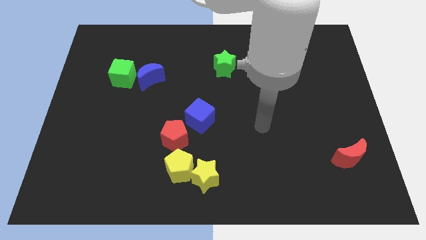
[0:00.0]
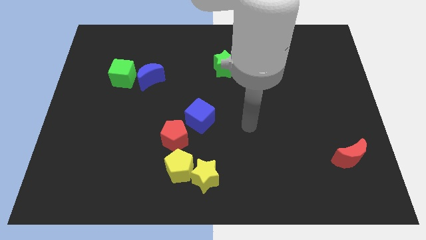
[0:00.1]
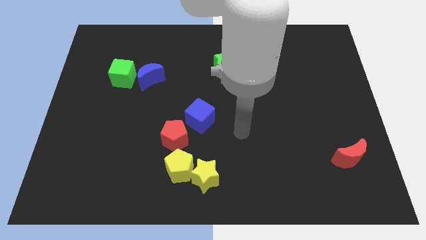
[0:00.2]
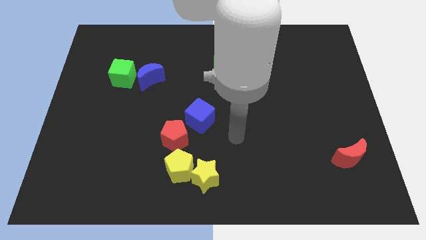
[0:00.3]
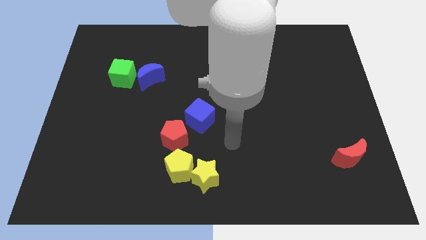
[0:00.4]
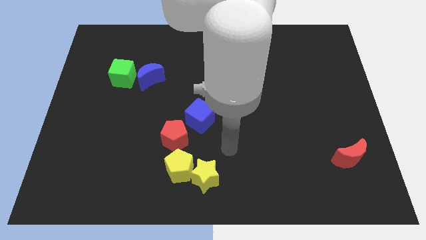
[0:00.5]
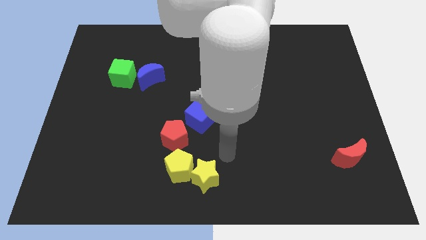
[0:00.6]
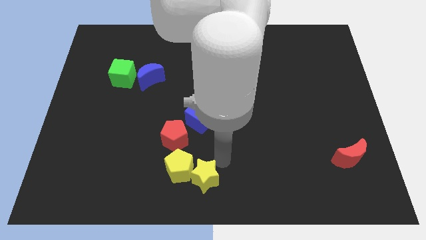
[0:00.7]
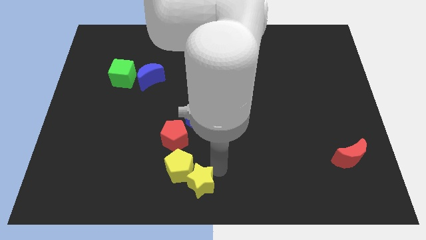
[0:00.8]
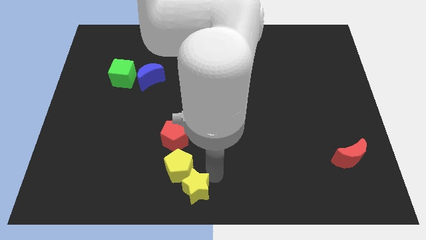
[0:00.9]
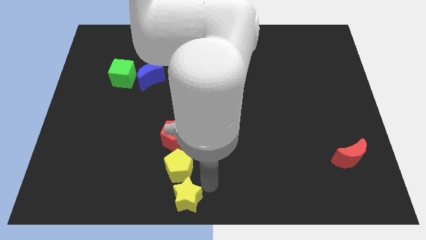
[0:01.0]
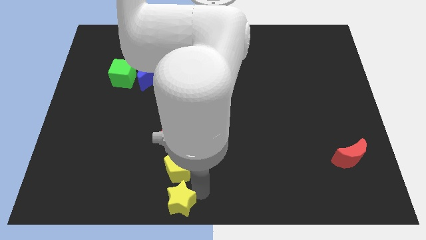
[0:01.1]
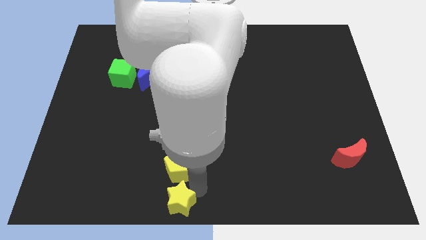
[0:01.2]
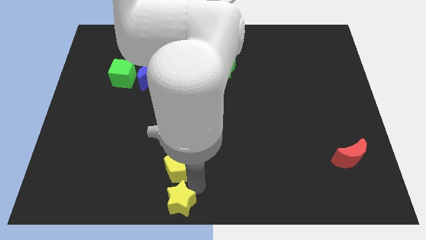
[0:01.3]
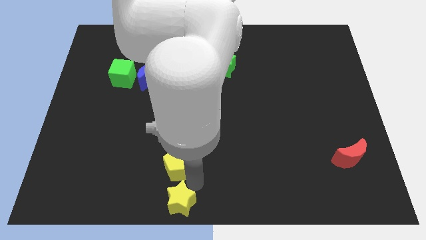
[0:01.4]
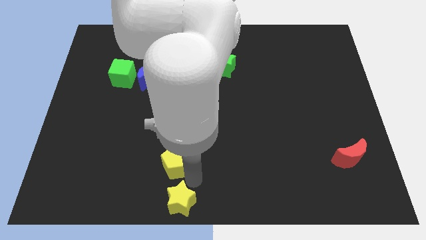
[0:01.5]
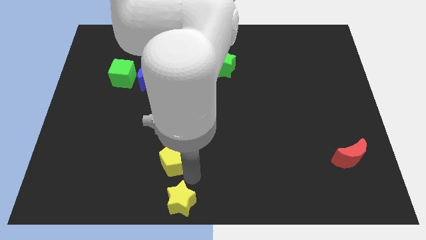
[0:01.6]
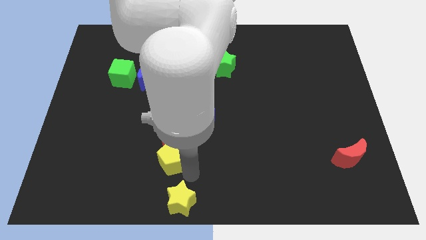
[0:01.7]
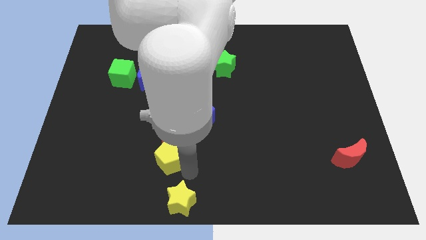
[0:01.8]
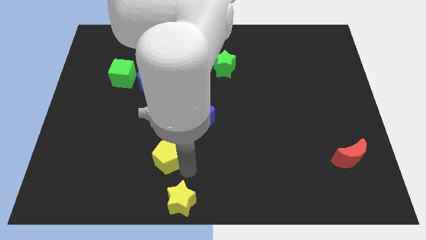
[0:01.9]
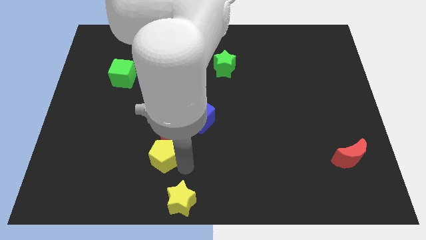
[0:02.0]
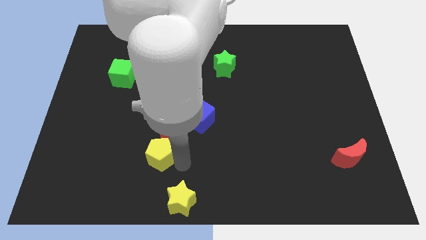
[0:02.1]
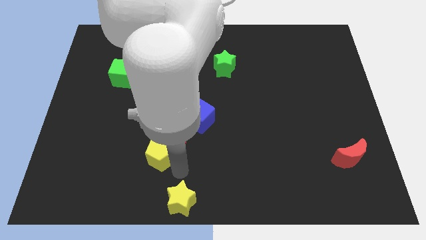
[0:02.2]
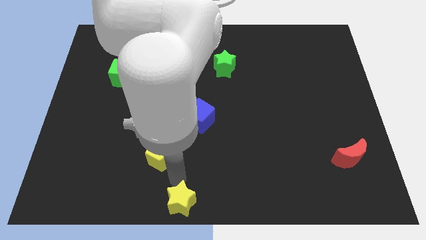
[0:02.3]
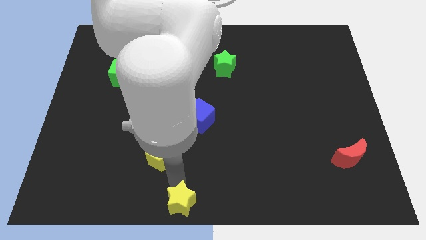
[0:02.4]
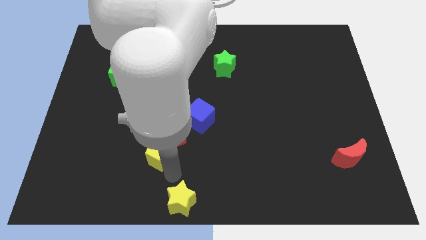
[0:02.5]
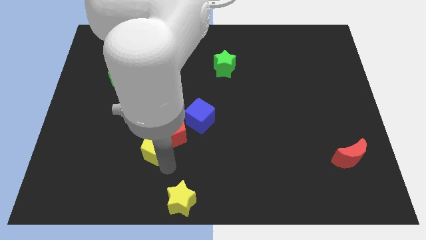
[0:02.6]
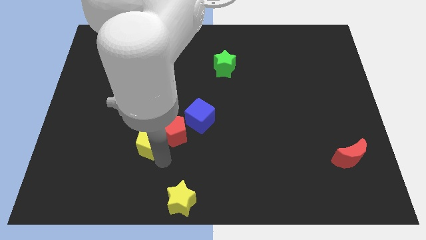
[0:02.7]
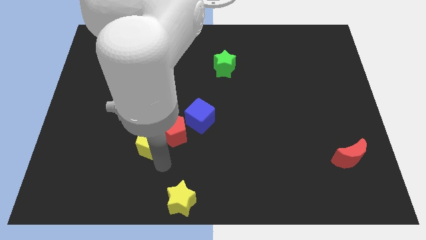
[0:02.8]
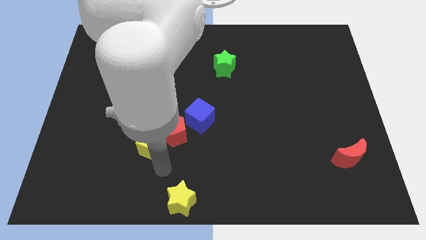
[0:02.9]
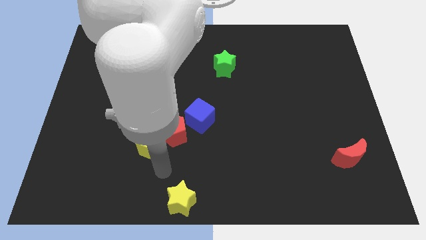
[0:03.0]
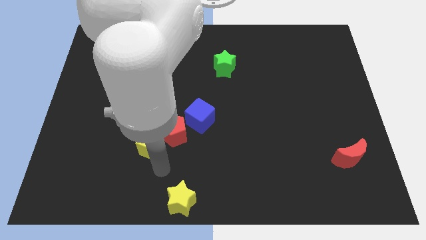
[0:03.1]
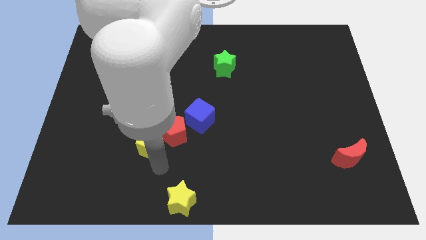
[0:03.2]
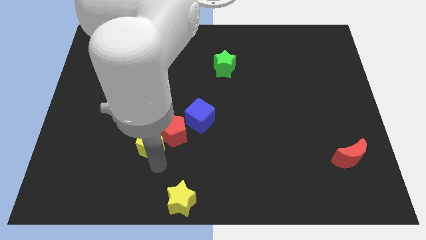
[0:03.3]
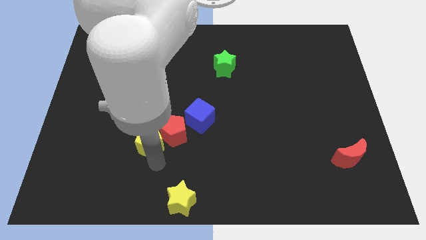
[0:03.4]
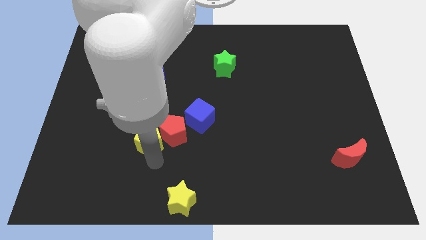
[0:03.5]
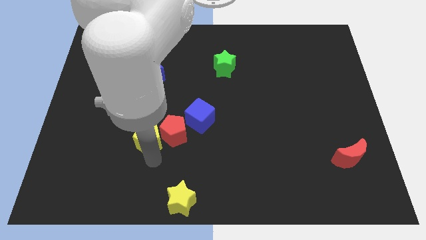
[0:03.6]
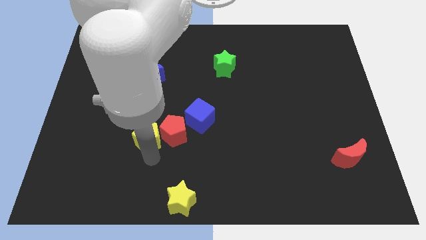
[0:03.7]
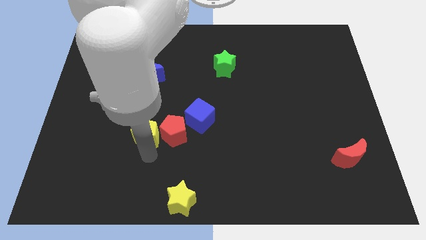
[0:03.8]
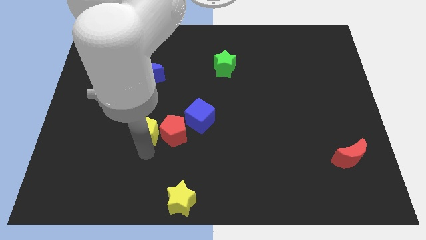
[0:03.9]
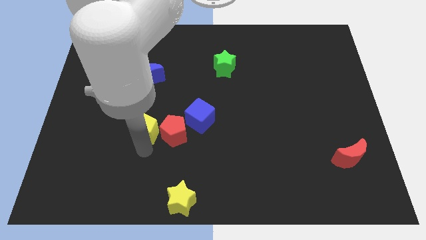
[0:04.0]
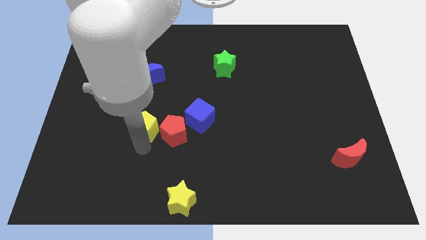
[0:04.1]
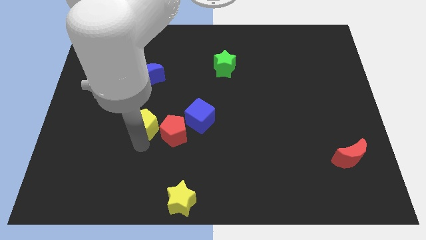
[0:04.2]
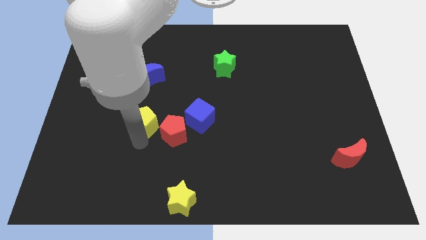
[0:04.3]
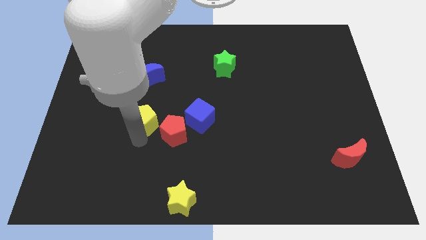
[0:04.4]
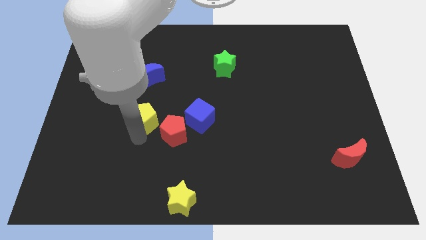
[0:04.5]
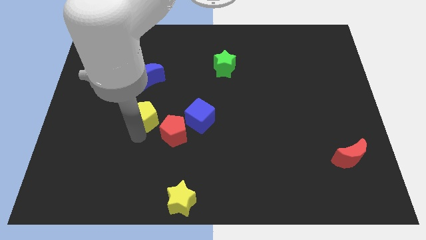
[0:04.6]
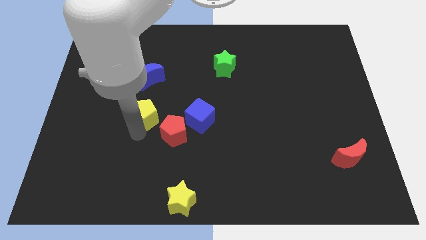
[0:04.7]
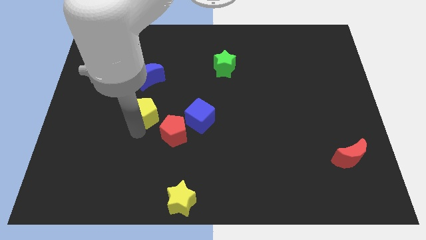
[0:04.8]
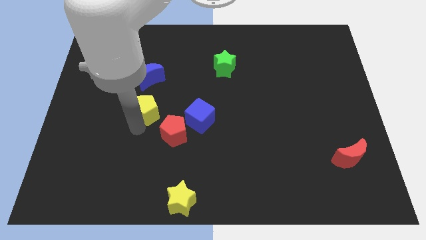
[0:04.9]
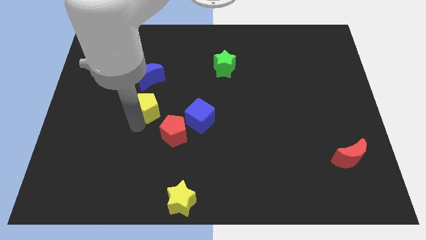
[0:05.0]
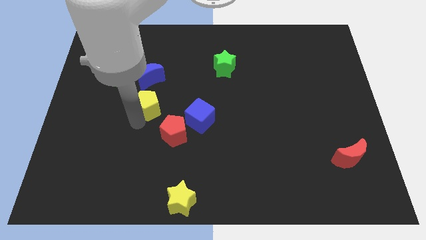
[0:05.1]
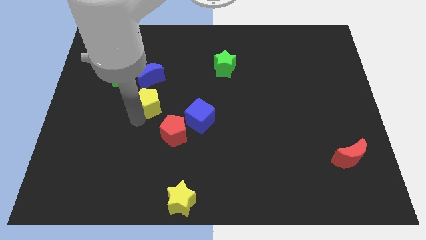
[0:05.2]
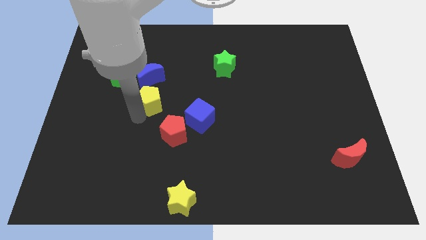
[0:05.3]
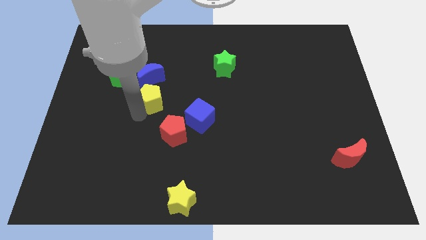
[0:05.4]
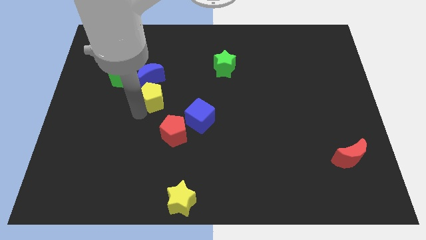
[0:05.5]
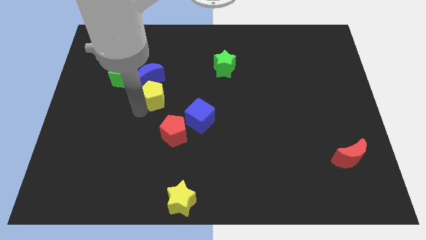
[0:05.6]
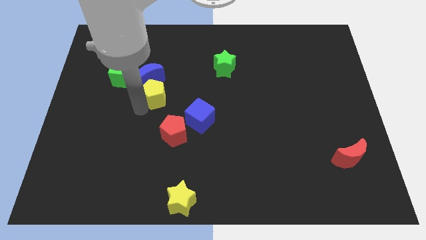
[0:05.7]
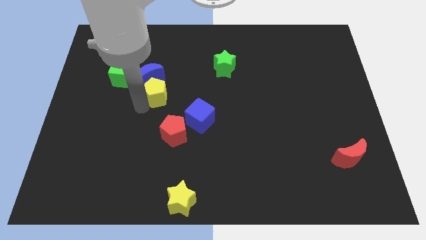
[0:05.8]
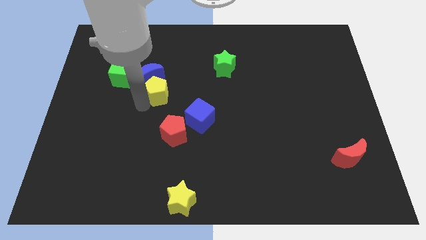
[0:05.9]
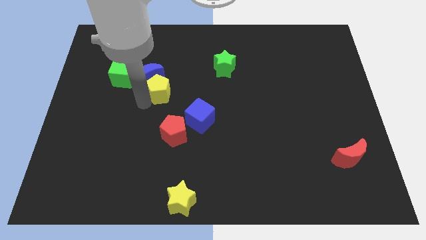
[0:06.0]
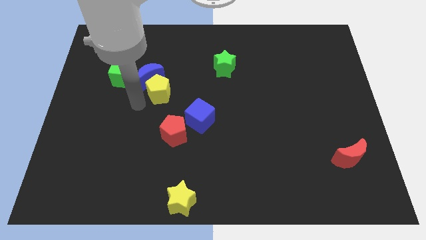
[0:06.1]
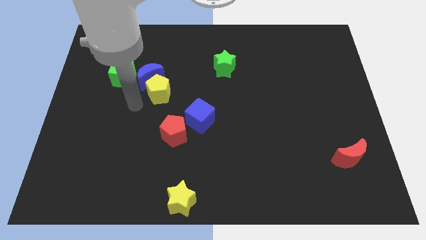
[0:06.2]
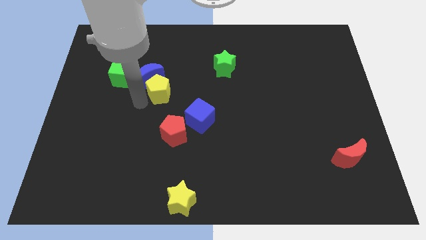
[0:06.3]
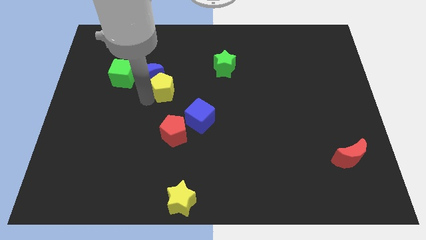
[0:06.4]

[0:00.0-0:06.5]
slide the yellow pentagon upwards

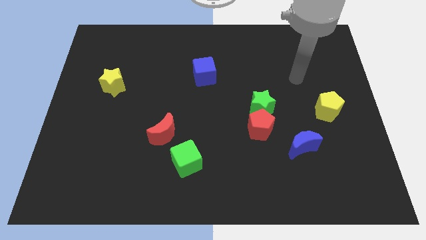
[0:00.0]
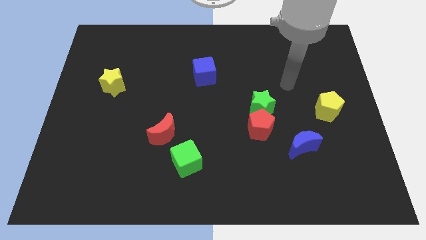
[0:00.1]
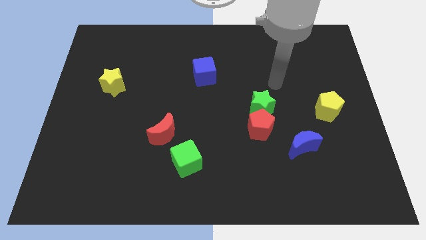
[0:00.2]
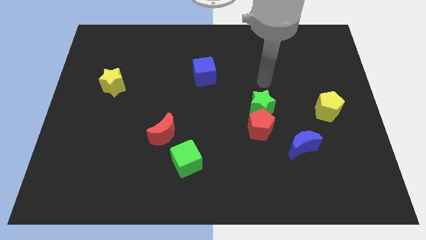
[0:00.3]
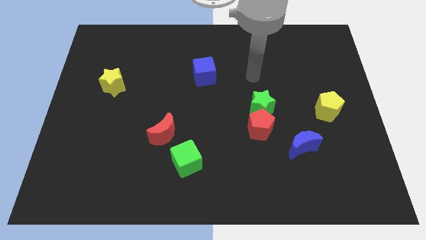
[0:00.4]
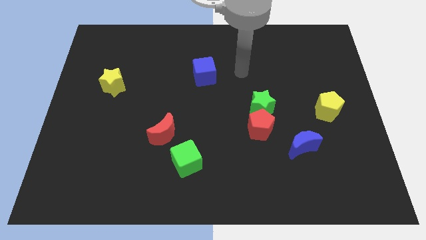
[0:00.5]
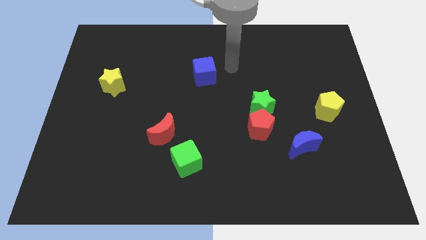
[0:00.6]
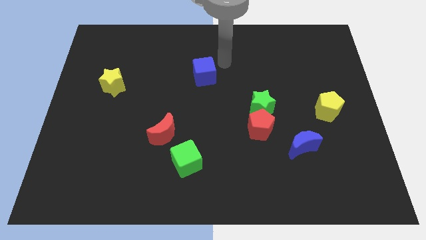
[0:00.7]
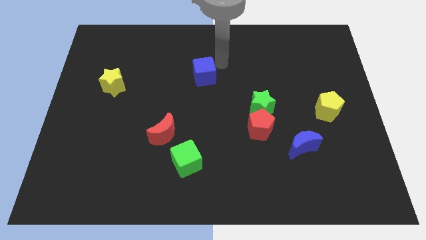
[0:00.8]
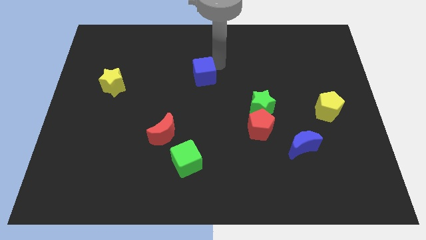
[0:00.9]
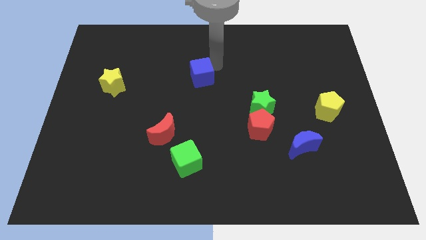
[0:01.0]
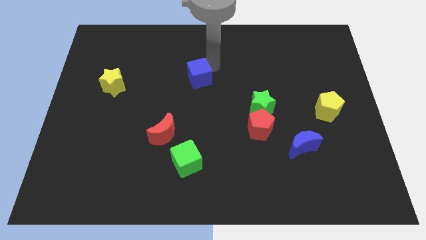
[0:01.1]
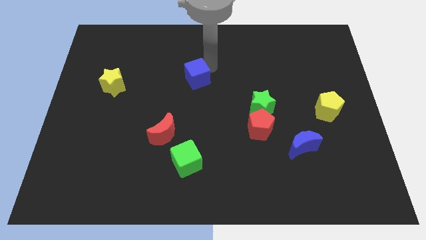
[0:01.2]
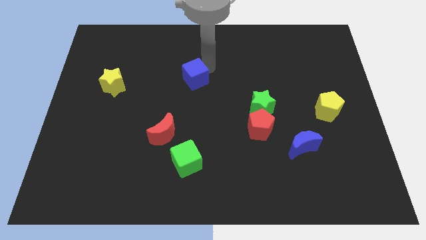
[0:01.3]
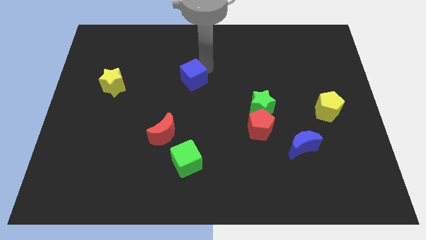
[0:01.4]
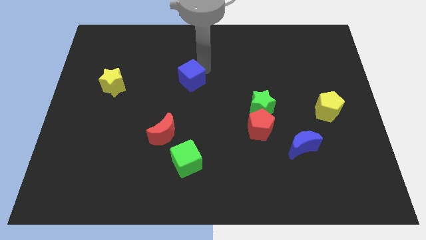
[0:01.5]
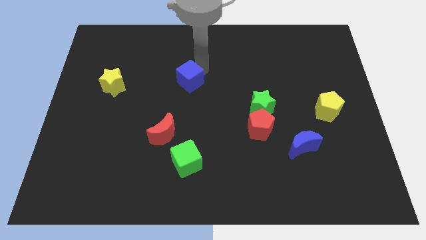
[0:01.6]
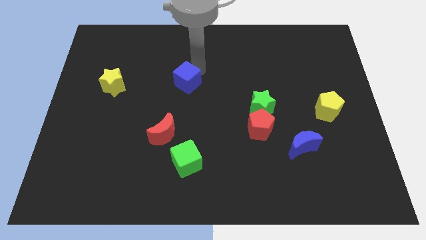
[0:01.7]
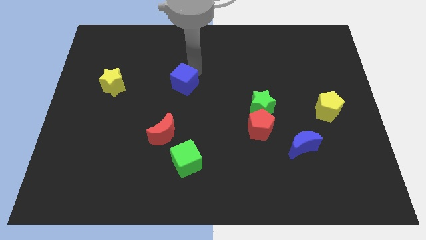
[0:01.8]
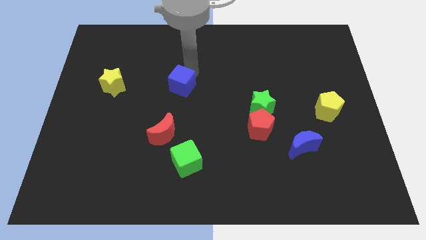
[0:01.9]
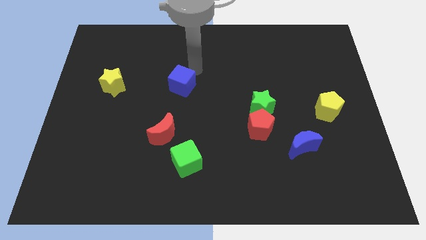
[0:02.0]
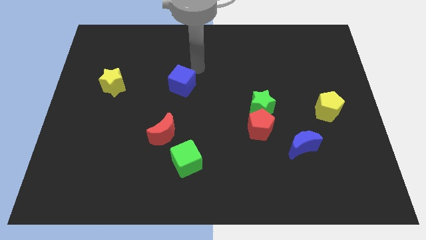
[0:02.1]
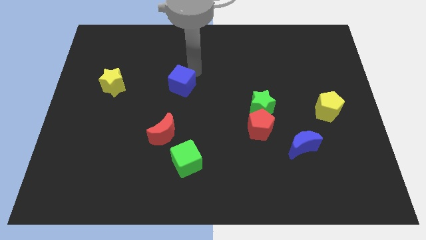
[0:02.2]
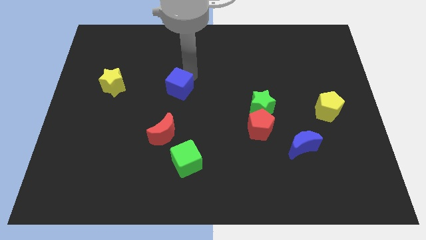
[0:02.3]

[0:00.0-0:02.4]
slide the blue cube a little bit diagonally down and left
